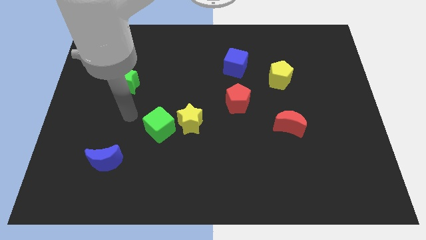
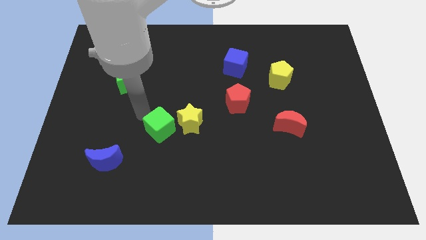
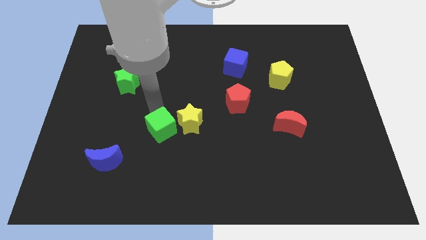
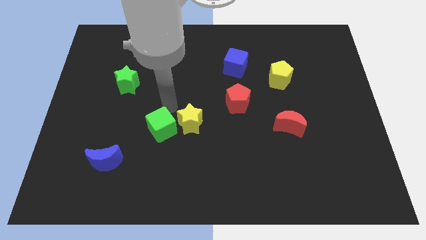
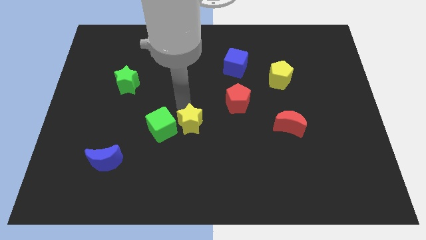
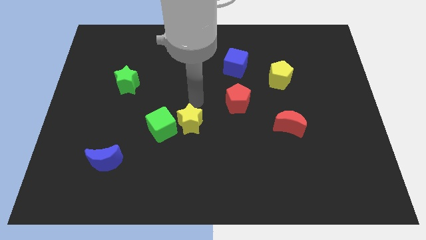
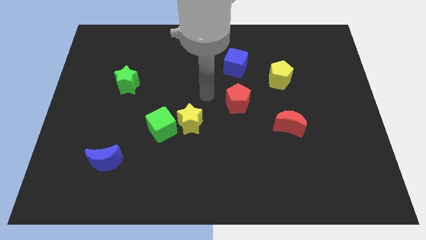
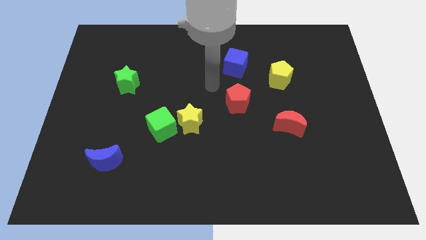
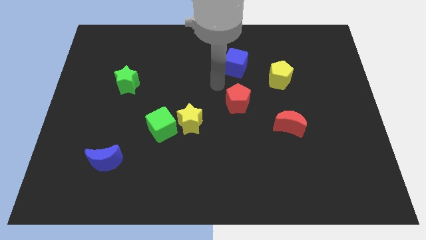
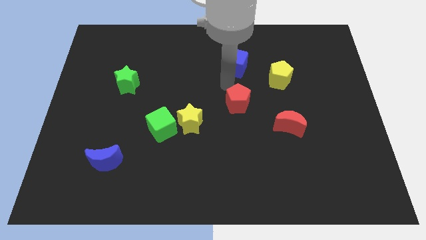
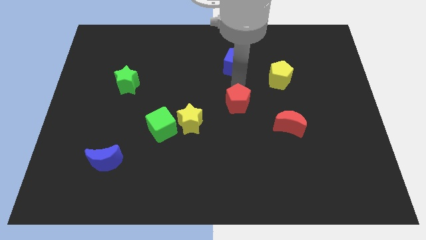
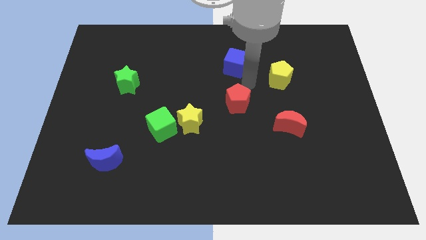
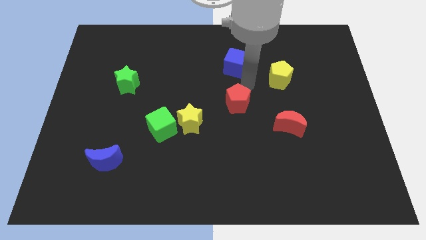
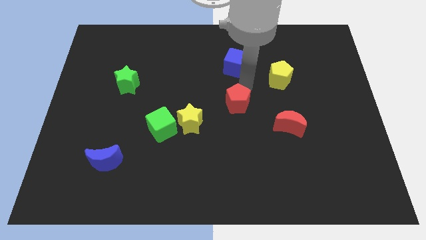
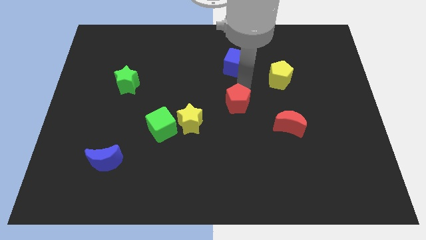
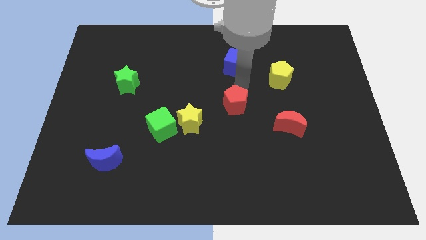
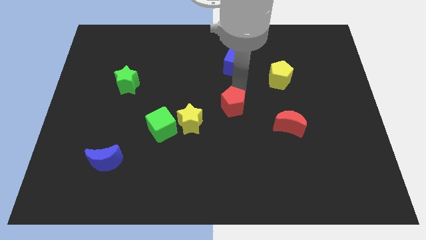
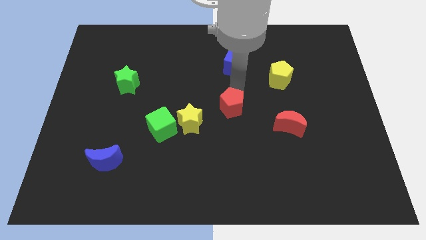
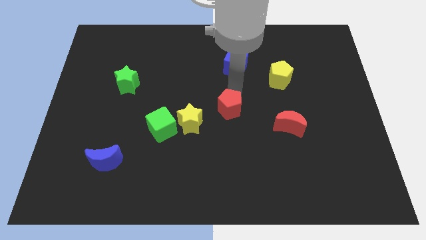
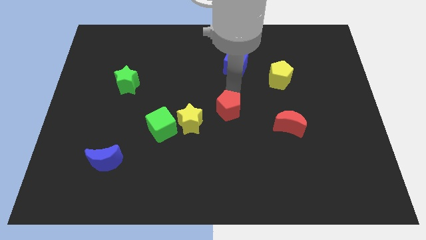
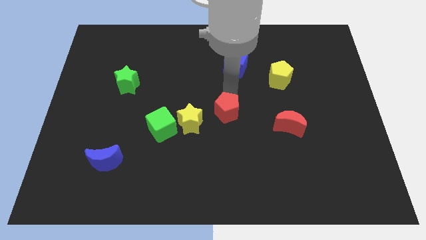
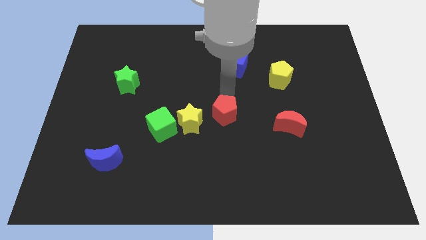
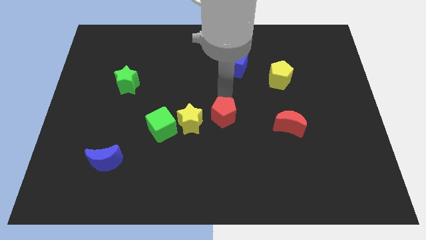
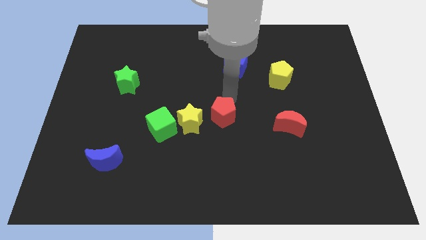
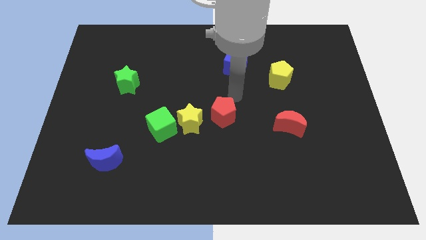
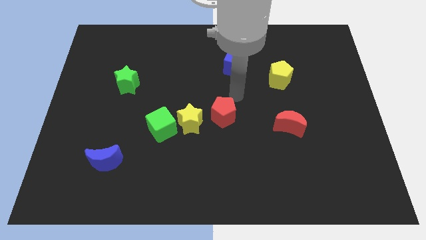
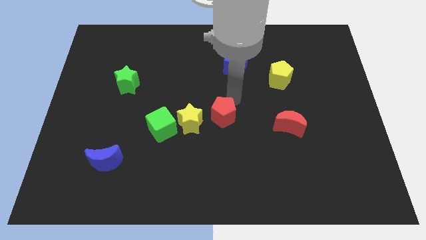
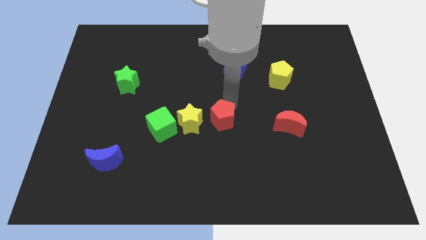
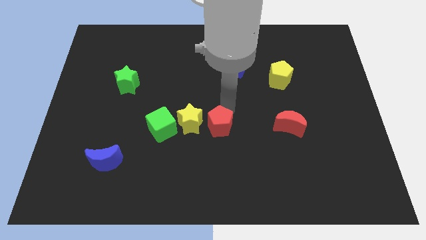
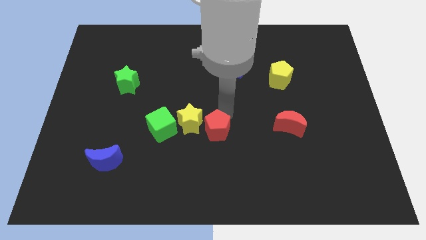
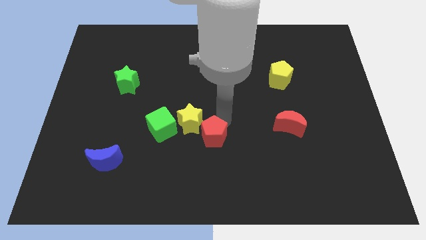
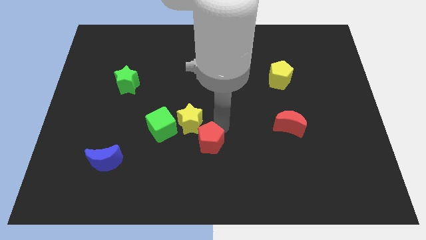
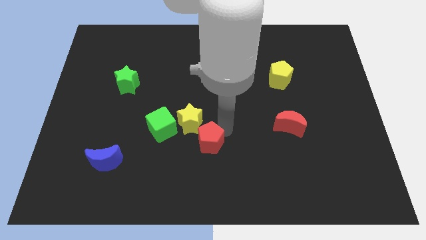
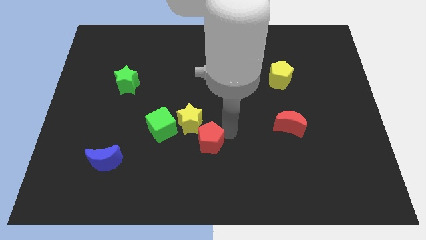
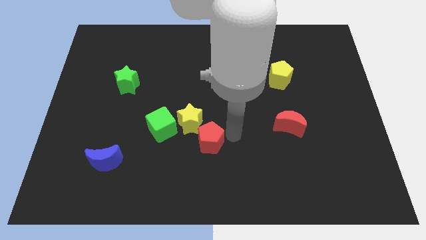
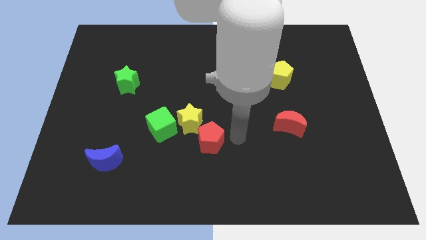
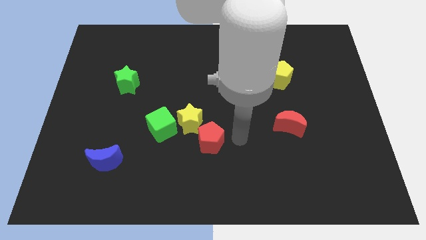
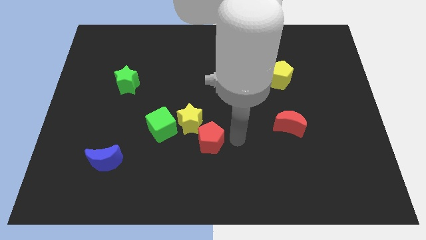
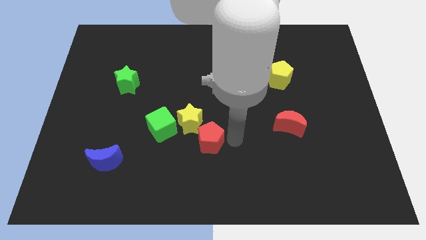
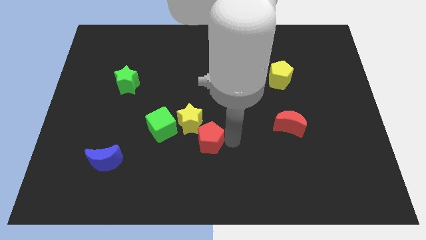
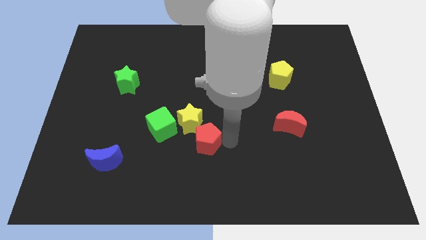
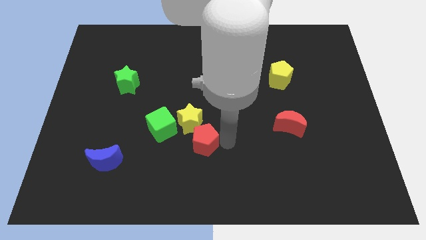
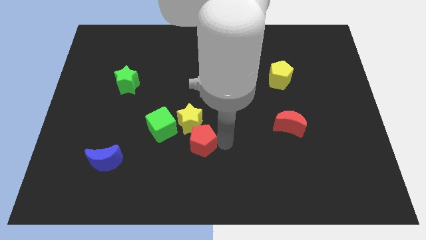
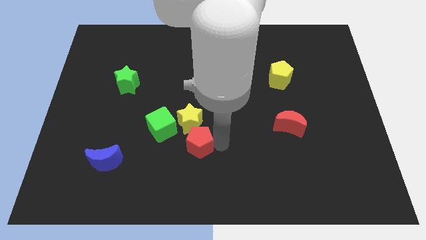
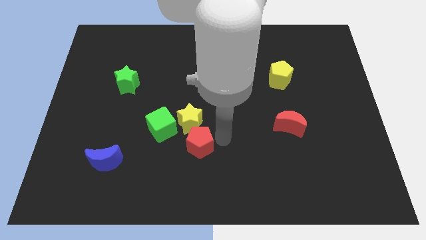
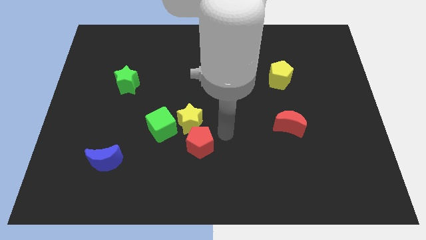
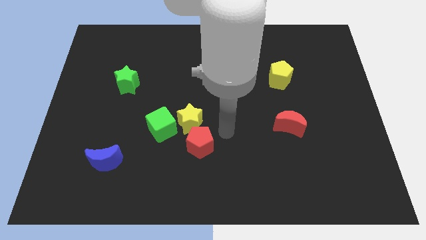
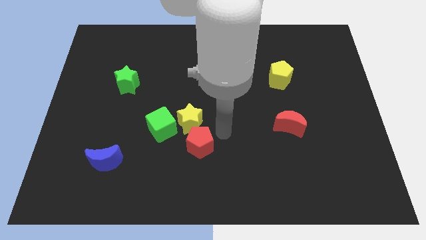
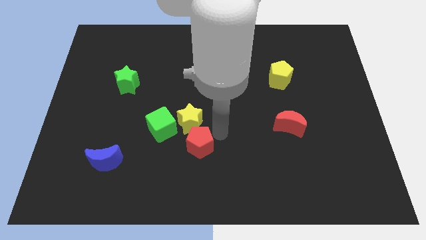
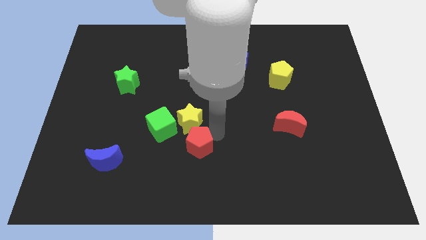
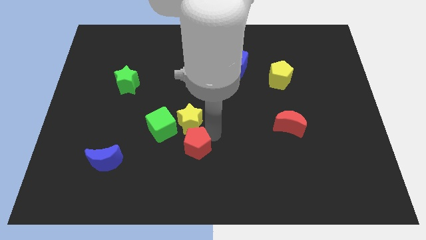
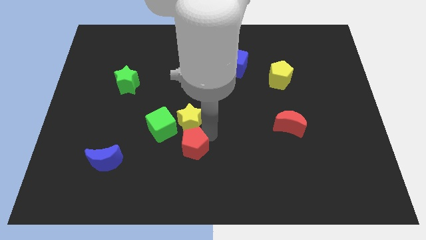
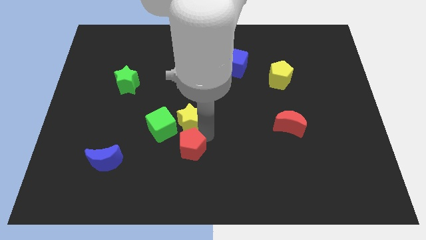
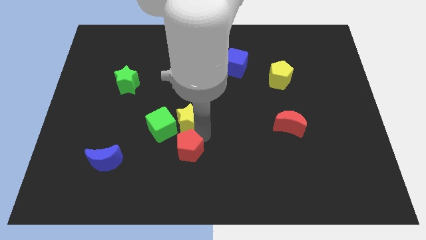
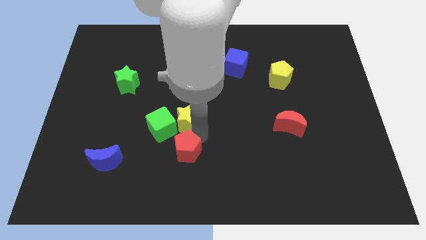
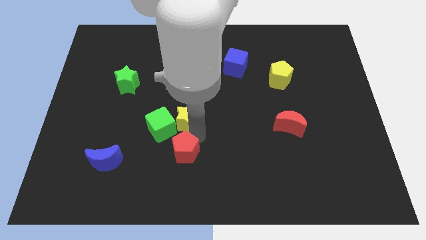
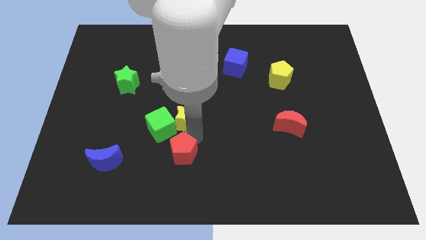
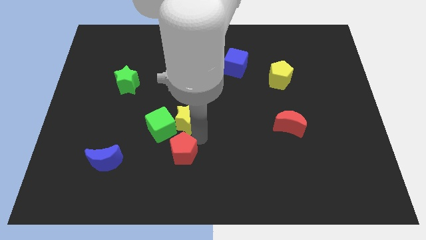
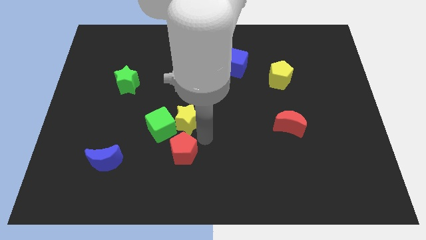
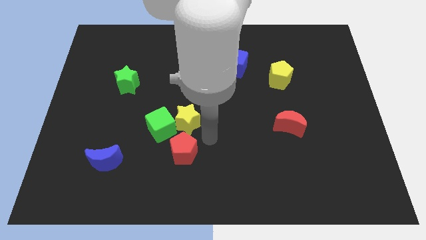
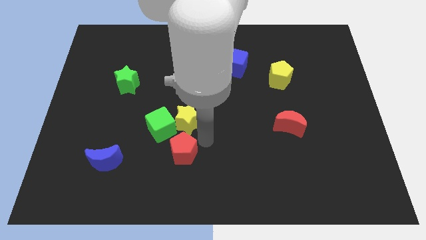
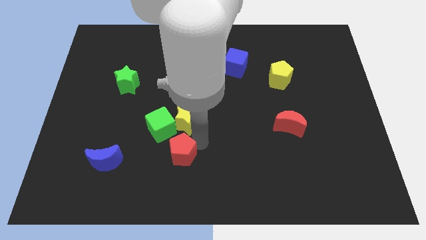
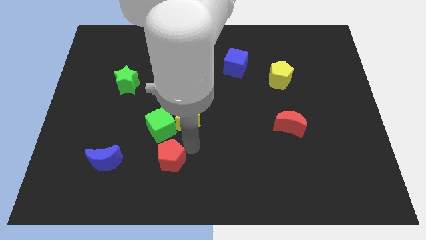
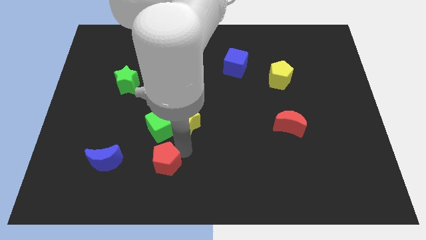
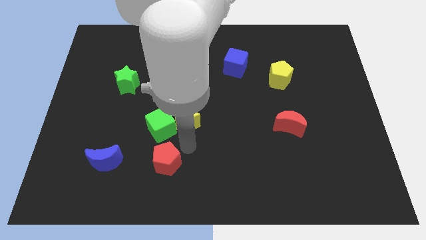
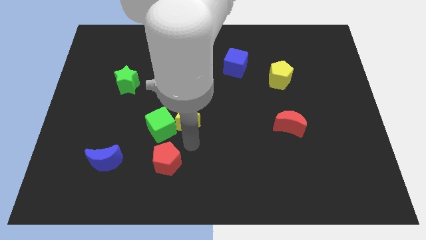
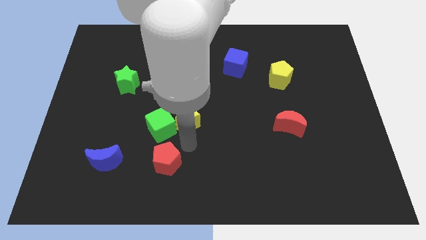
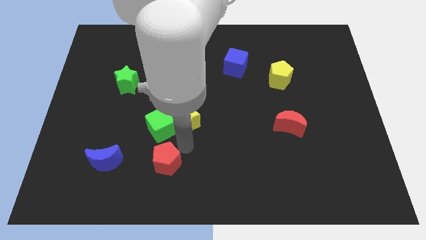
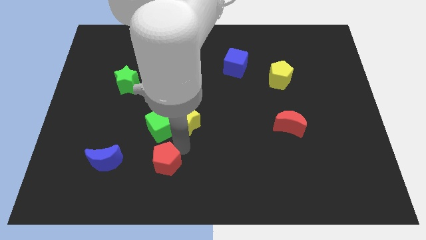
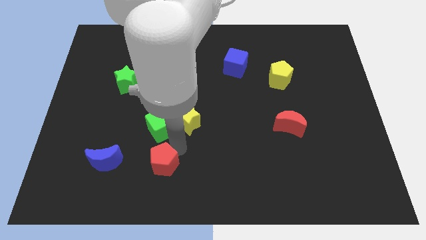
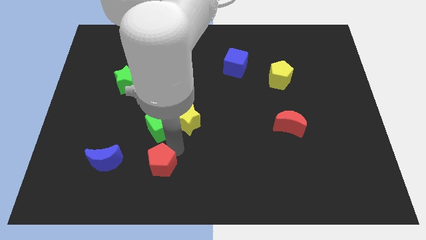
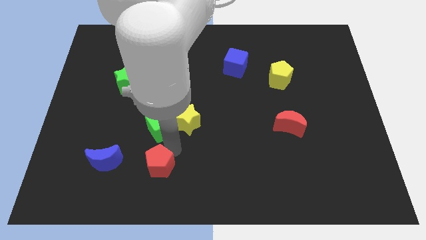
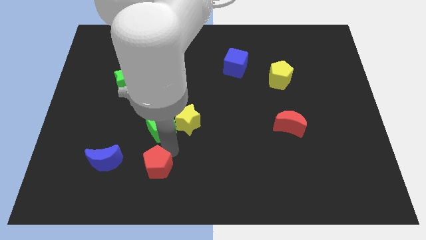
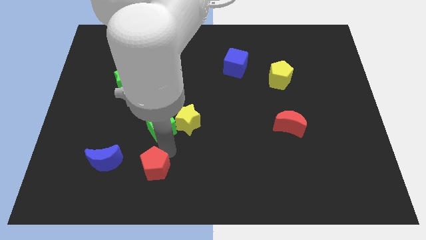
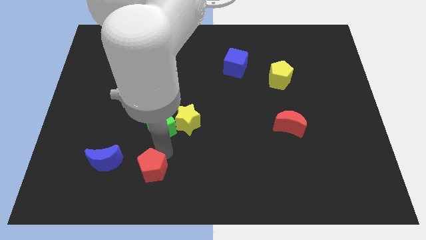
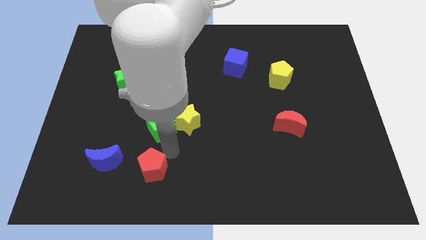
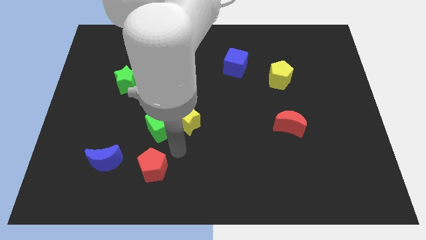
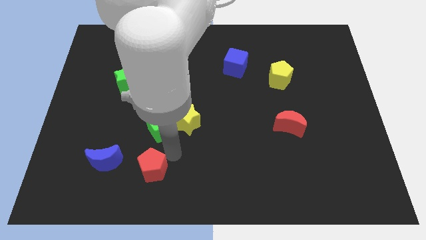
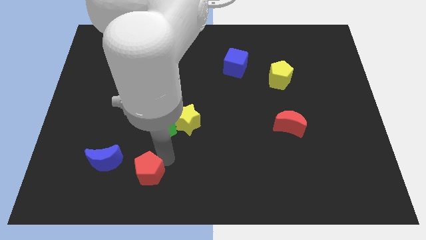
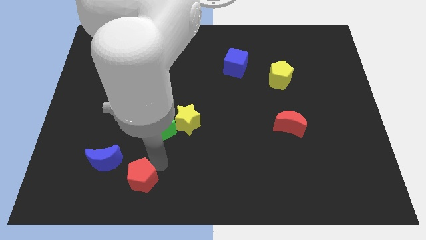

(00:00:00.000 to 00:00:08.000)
slide the red pentagon to the bottom right side of the blue moon
